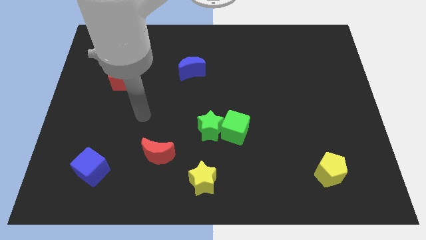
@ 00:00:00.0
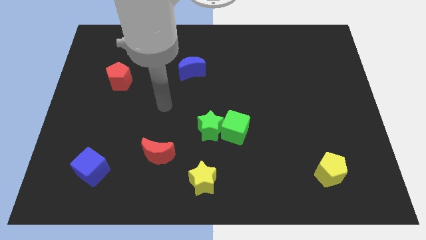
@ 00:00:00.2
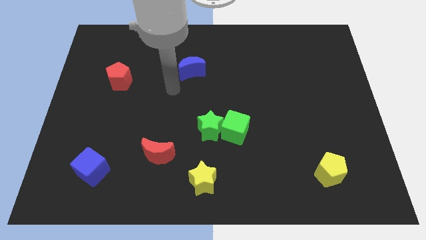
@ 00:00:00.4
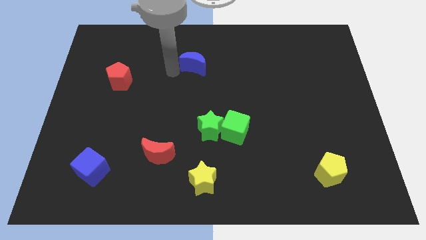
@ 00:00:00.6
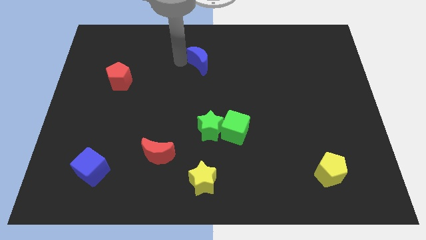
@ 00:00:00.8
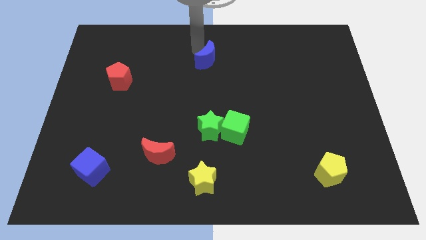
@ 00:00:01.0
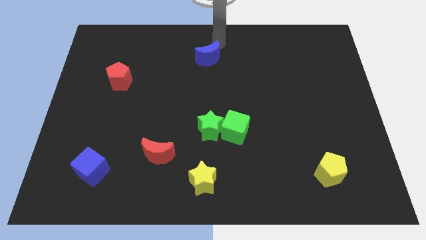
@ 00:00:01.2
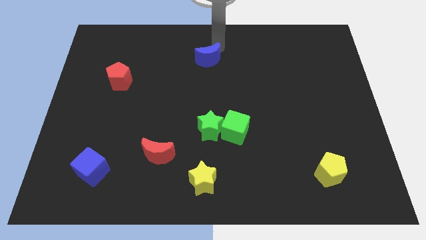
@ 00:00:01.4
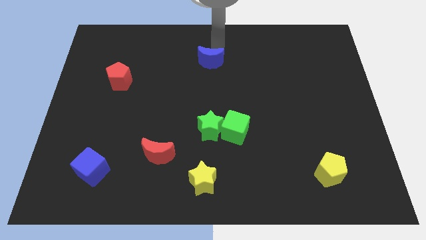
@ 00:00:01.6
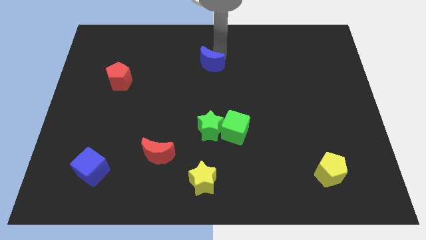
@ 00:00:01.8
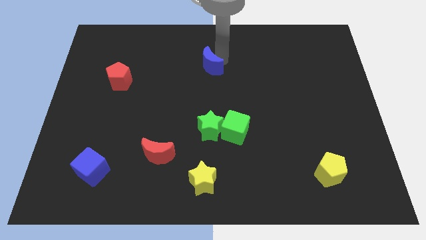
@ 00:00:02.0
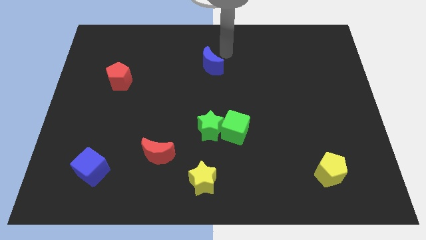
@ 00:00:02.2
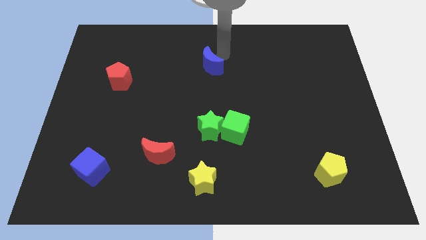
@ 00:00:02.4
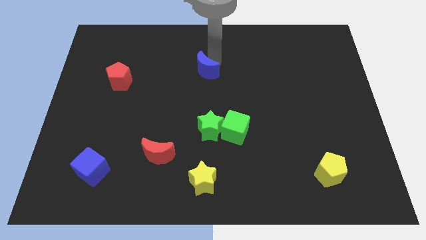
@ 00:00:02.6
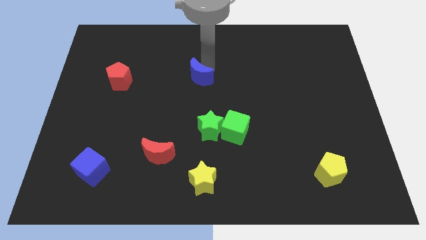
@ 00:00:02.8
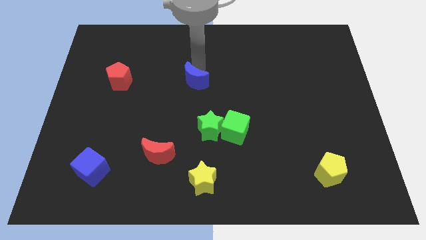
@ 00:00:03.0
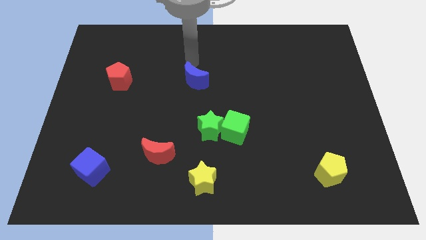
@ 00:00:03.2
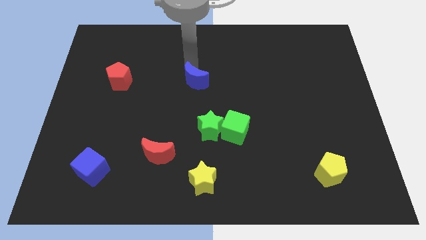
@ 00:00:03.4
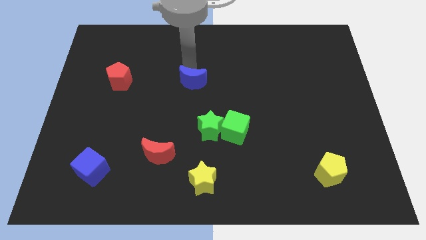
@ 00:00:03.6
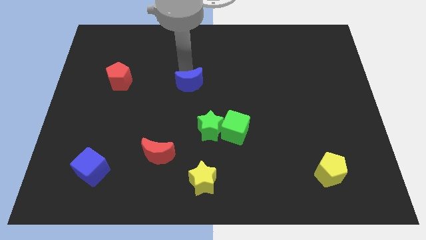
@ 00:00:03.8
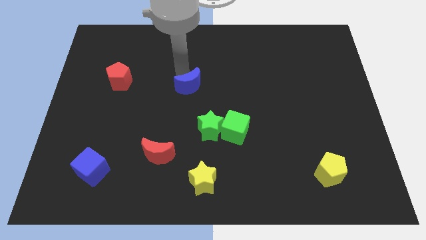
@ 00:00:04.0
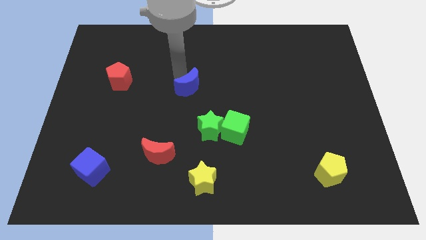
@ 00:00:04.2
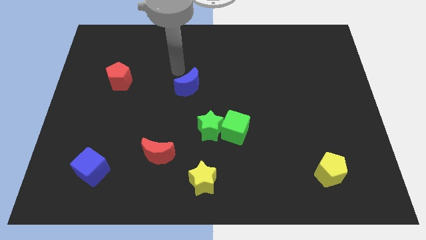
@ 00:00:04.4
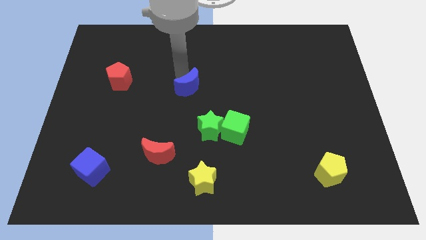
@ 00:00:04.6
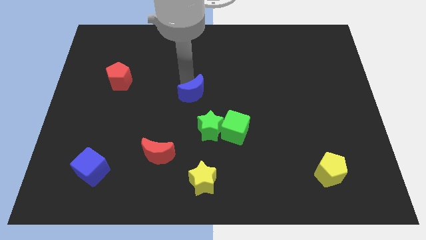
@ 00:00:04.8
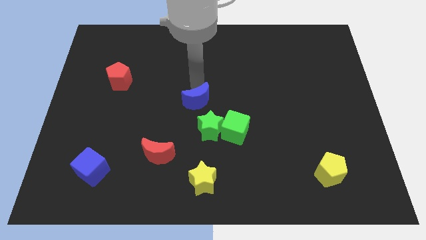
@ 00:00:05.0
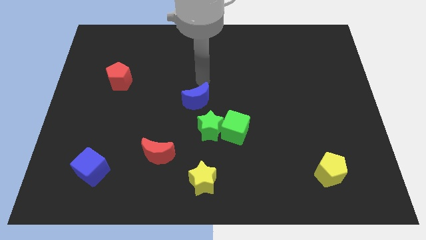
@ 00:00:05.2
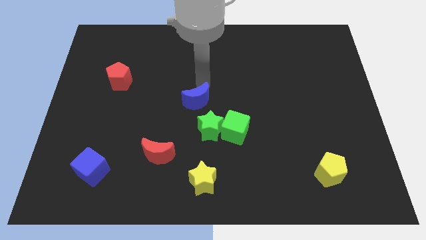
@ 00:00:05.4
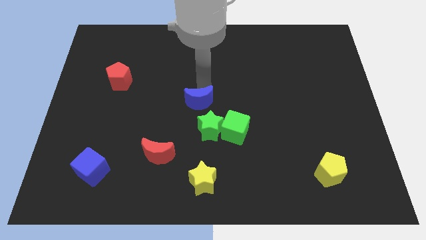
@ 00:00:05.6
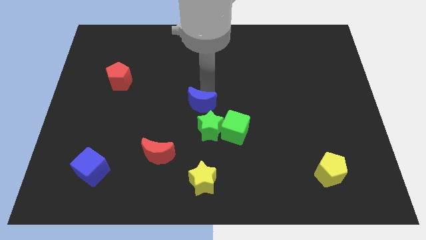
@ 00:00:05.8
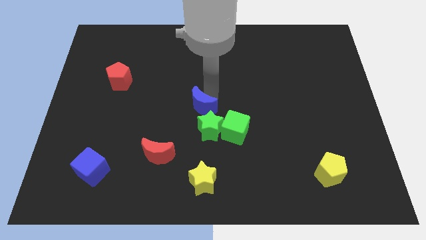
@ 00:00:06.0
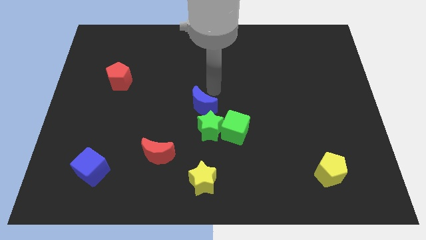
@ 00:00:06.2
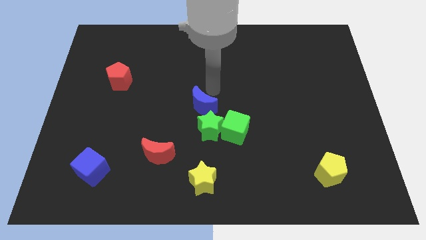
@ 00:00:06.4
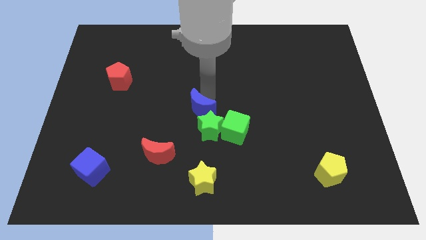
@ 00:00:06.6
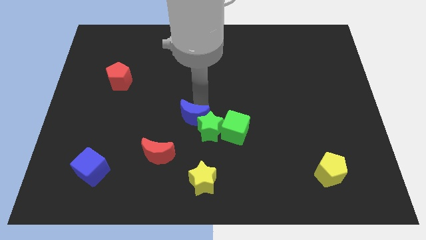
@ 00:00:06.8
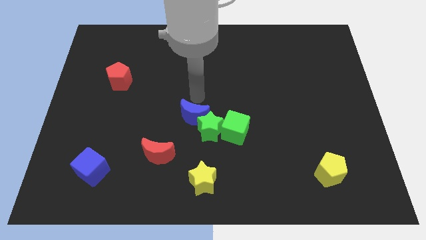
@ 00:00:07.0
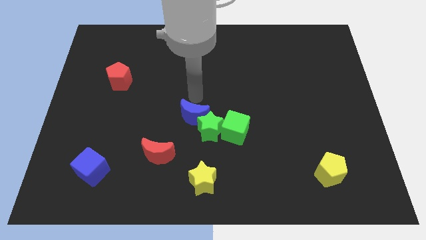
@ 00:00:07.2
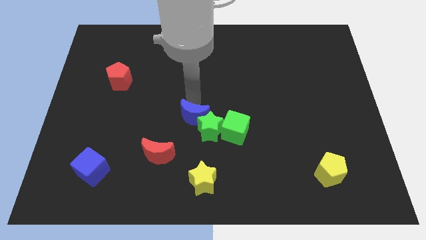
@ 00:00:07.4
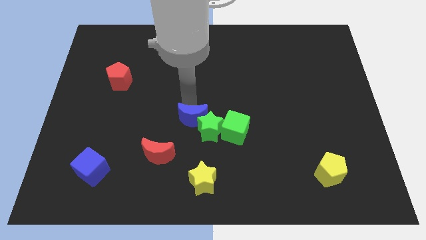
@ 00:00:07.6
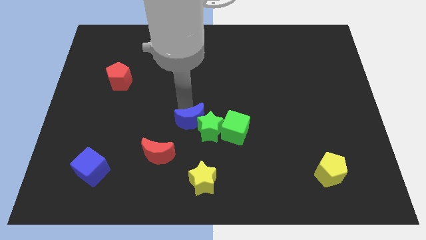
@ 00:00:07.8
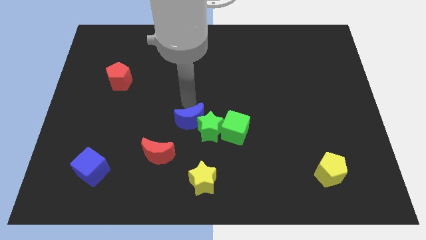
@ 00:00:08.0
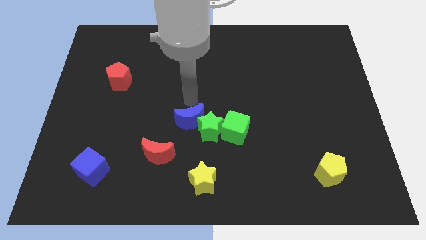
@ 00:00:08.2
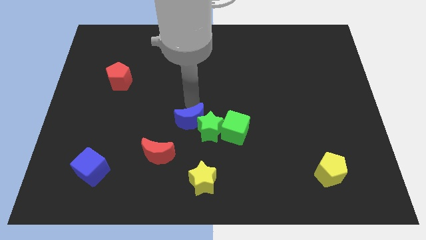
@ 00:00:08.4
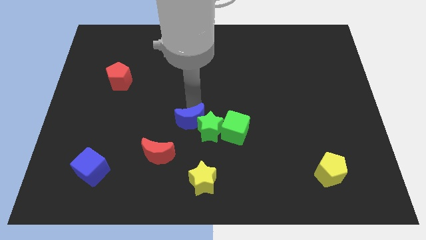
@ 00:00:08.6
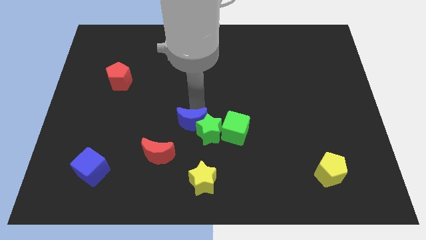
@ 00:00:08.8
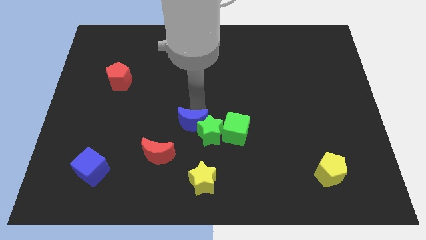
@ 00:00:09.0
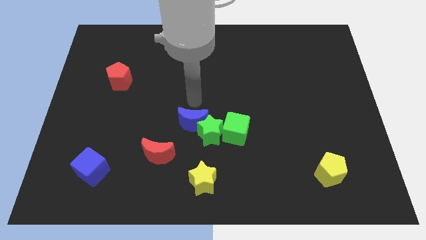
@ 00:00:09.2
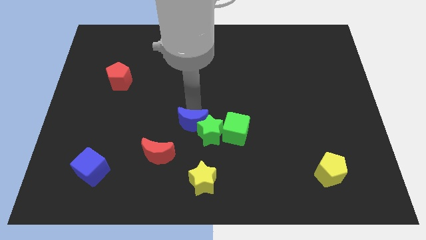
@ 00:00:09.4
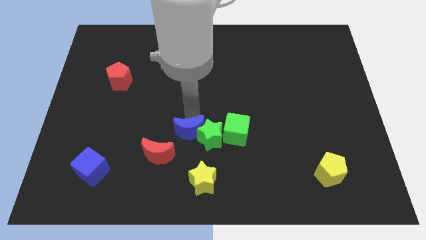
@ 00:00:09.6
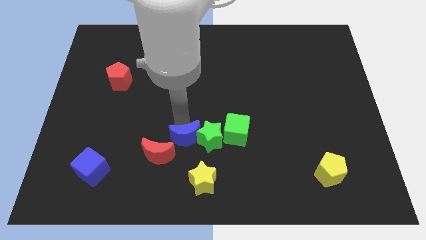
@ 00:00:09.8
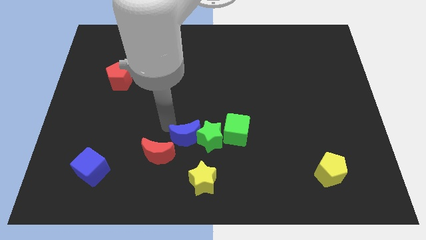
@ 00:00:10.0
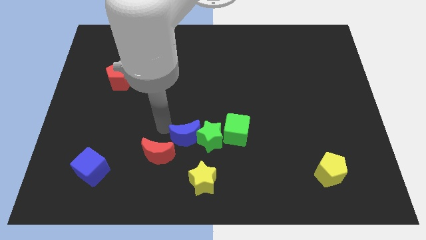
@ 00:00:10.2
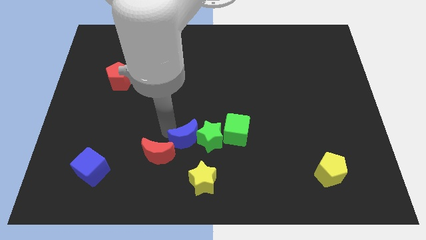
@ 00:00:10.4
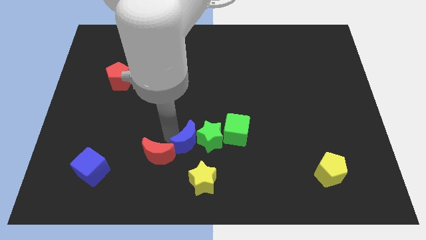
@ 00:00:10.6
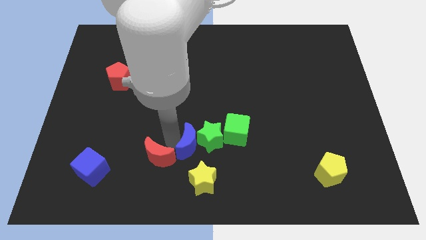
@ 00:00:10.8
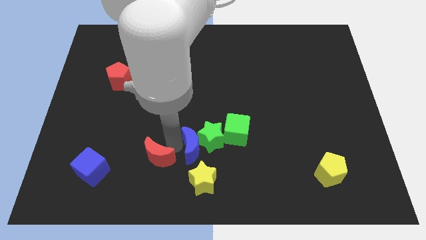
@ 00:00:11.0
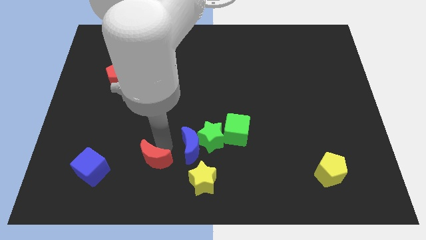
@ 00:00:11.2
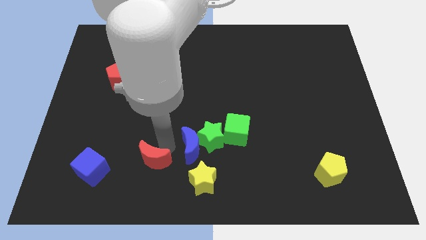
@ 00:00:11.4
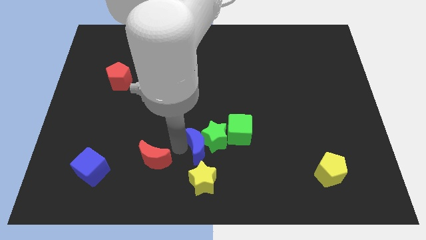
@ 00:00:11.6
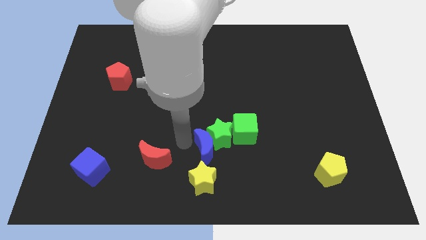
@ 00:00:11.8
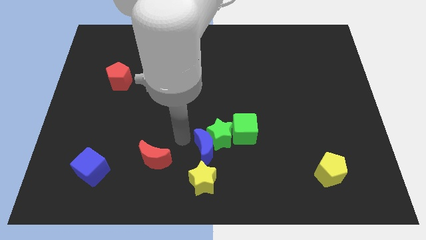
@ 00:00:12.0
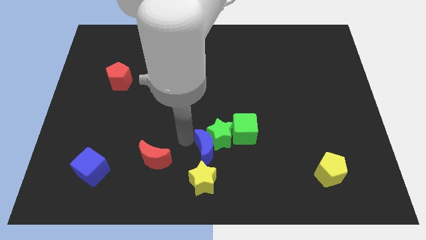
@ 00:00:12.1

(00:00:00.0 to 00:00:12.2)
slide the blue moon to the top right of the yellow star
